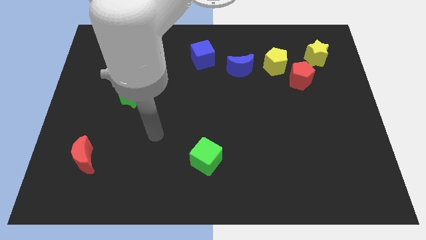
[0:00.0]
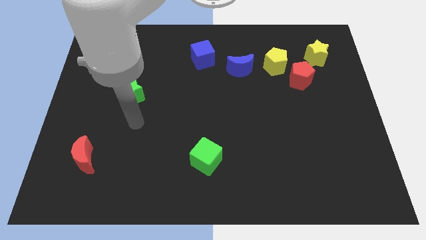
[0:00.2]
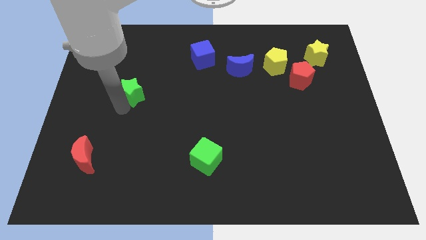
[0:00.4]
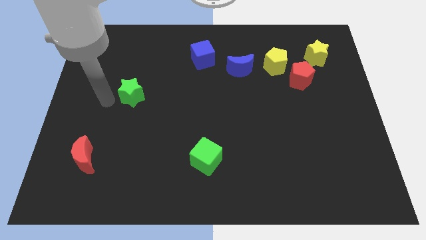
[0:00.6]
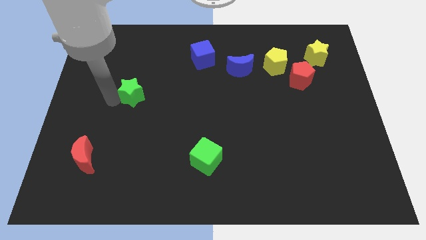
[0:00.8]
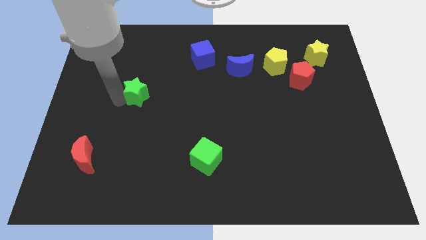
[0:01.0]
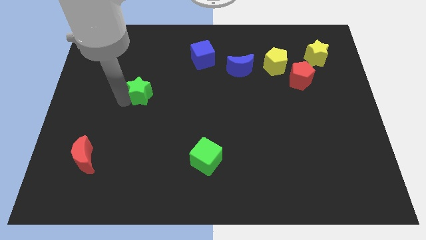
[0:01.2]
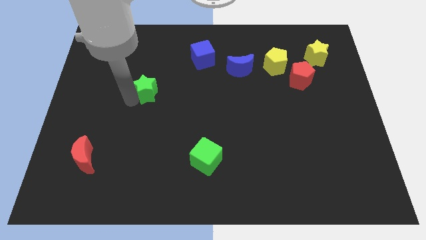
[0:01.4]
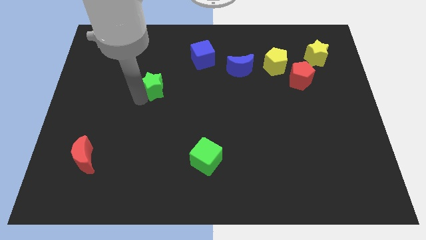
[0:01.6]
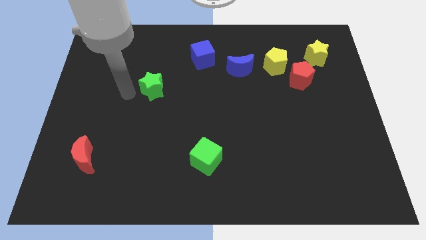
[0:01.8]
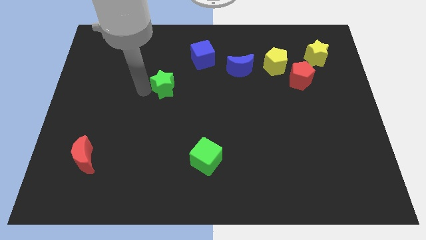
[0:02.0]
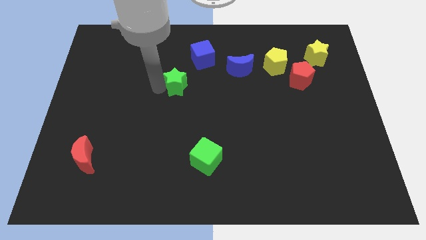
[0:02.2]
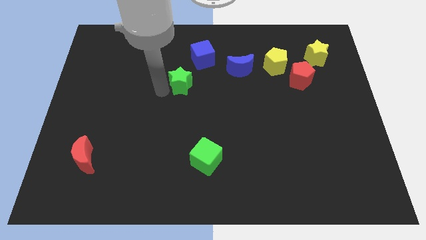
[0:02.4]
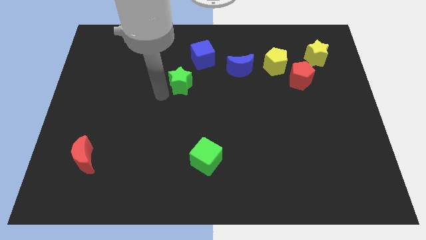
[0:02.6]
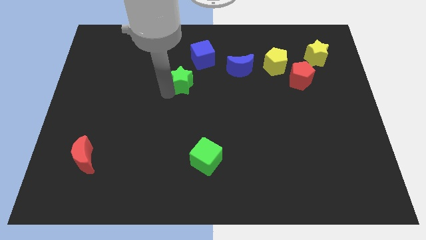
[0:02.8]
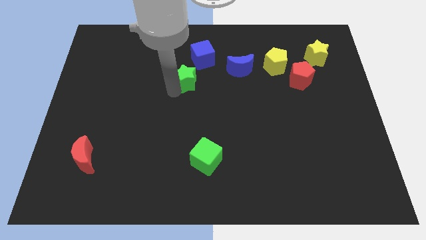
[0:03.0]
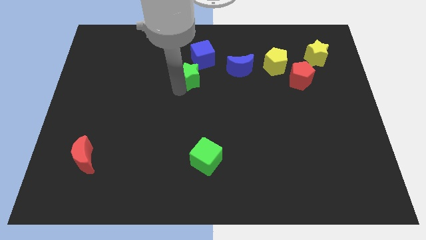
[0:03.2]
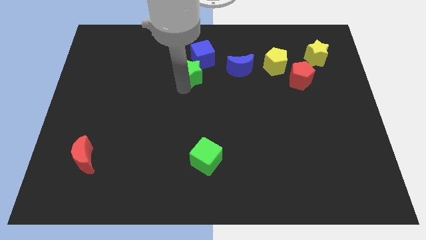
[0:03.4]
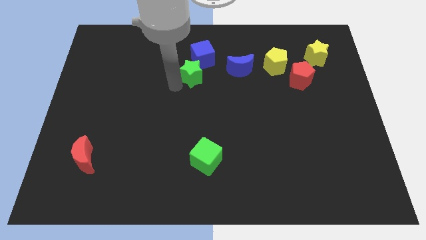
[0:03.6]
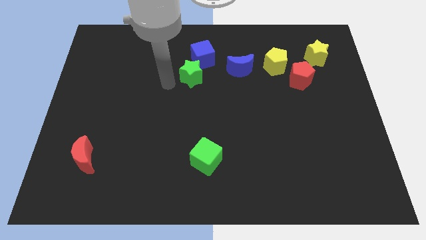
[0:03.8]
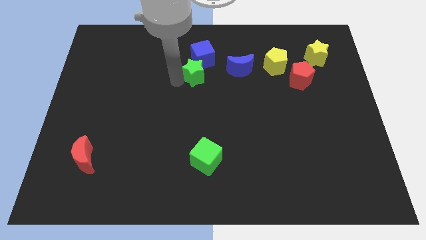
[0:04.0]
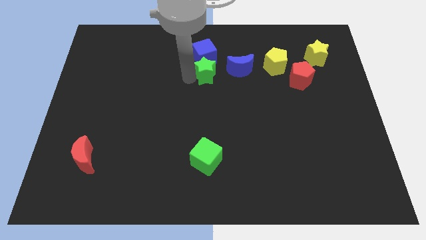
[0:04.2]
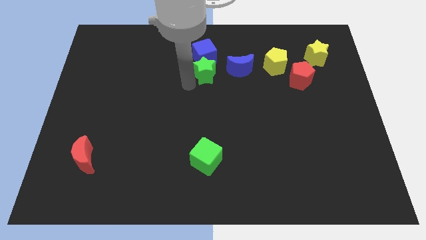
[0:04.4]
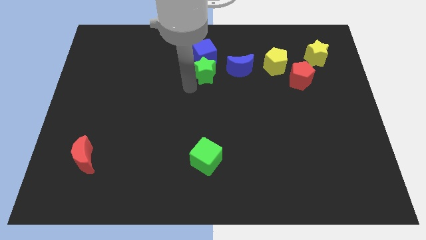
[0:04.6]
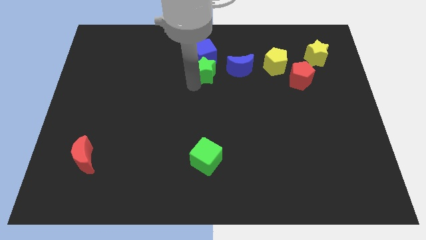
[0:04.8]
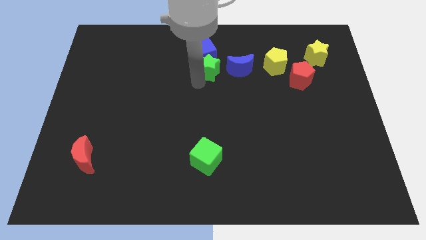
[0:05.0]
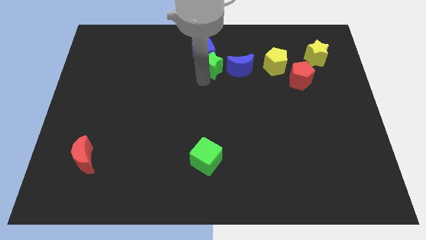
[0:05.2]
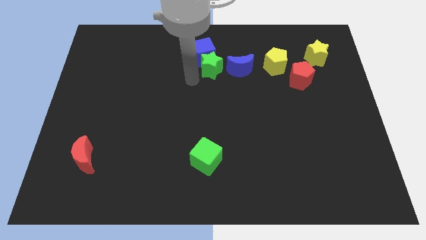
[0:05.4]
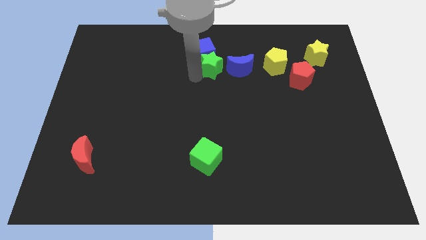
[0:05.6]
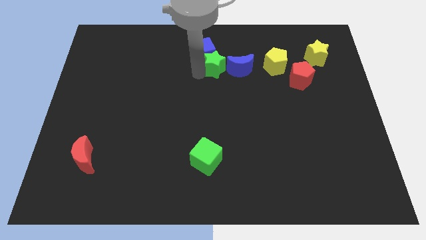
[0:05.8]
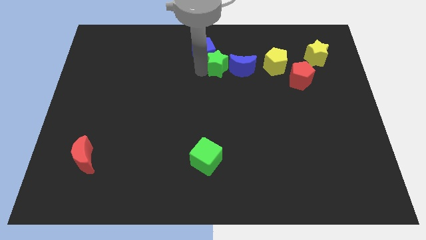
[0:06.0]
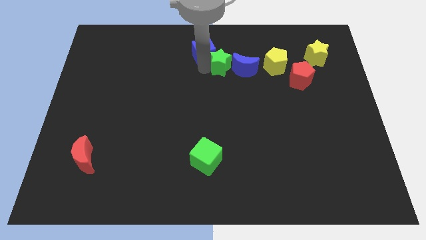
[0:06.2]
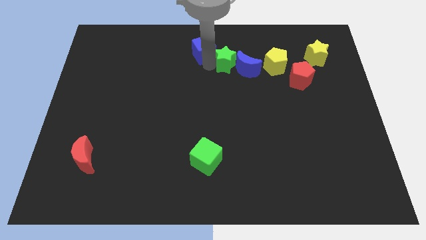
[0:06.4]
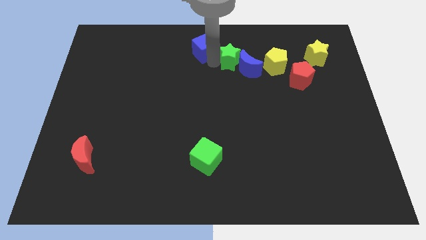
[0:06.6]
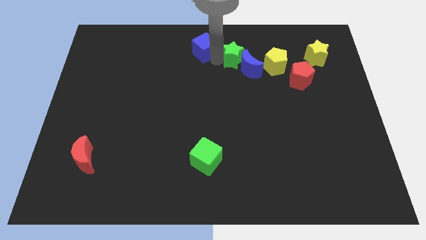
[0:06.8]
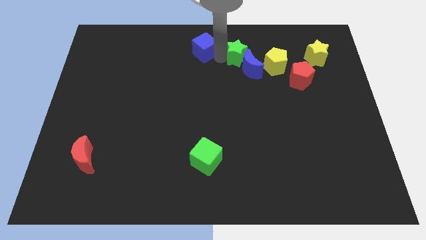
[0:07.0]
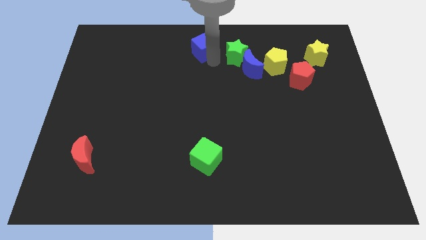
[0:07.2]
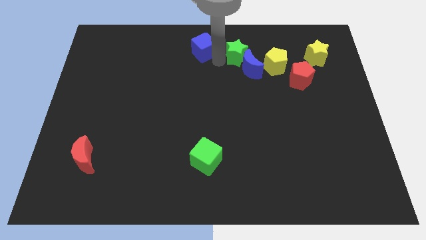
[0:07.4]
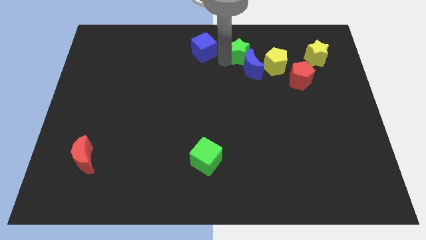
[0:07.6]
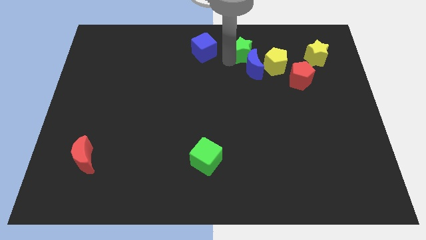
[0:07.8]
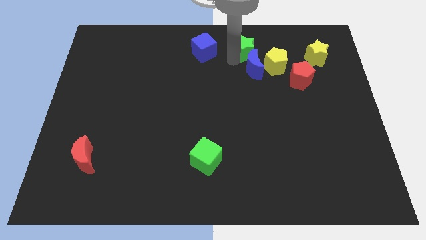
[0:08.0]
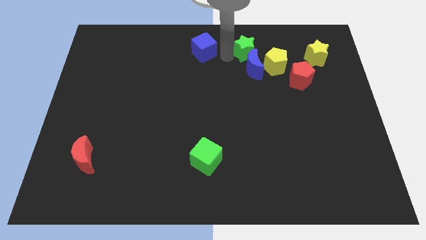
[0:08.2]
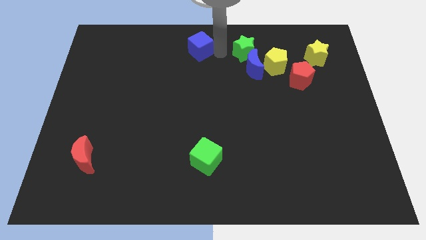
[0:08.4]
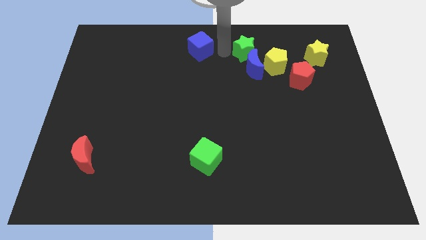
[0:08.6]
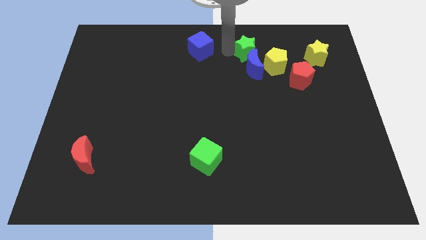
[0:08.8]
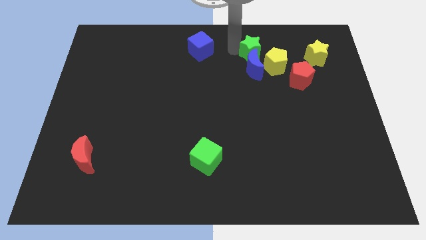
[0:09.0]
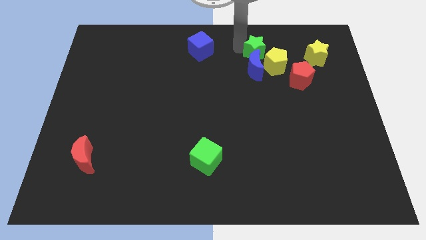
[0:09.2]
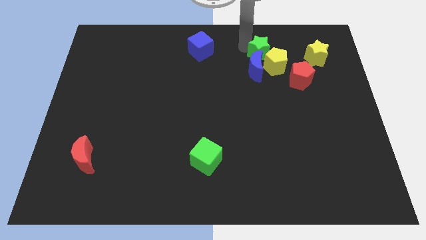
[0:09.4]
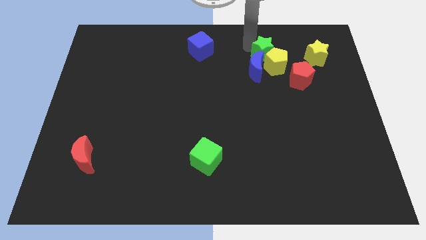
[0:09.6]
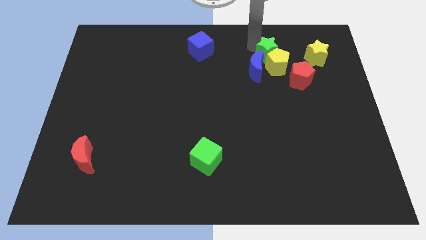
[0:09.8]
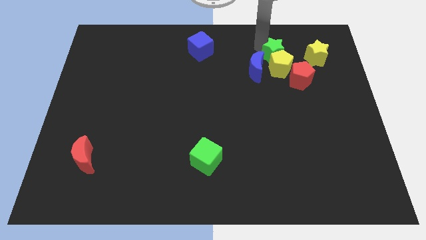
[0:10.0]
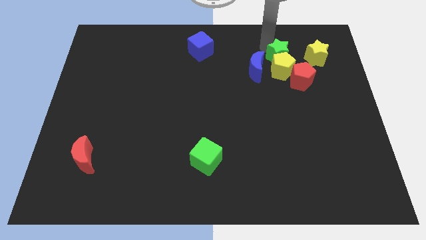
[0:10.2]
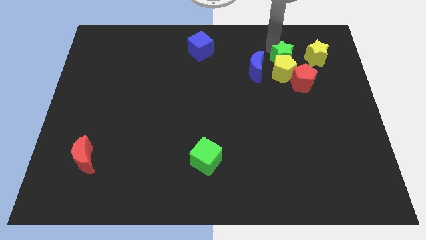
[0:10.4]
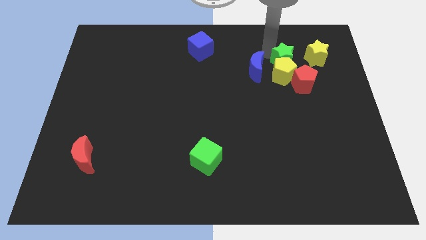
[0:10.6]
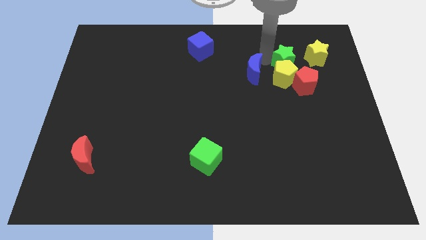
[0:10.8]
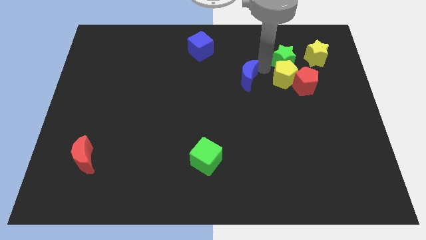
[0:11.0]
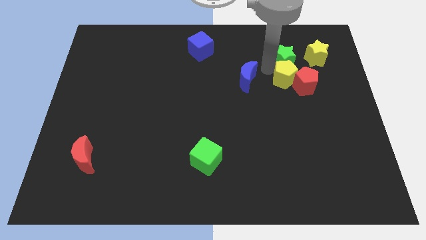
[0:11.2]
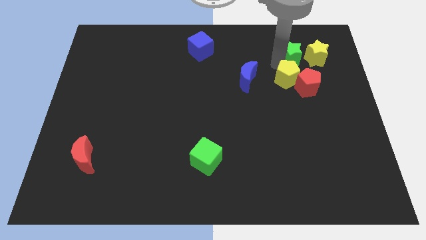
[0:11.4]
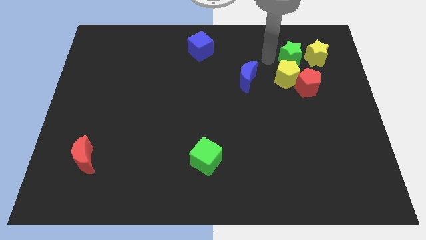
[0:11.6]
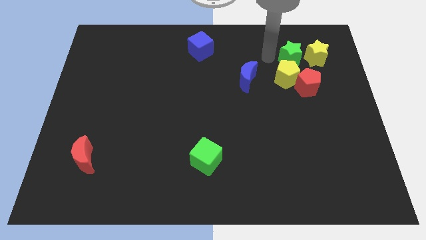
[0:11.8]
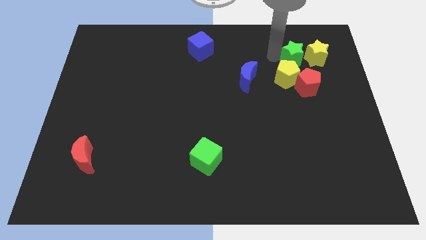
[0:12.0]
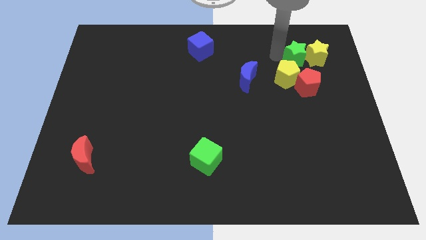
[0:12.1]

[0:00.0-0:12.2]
put the green star next to the yellow star

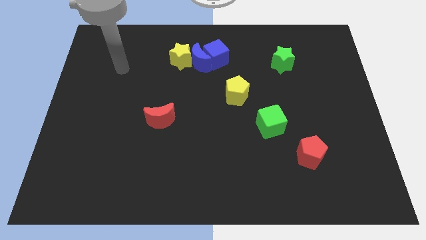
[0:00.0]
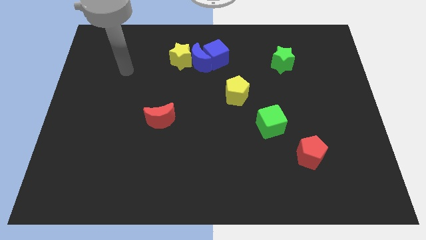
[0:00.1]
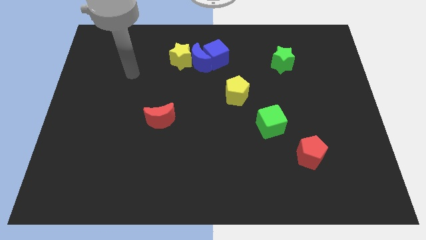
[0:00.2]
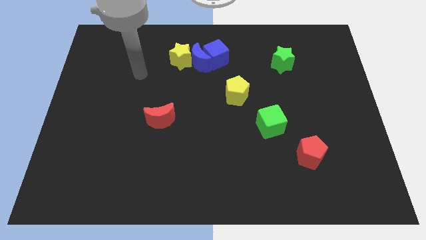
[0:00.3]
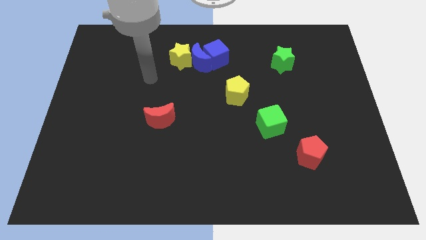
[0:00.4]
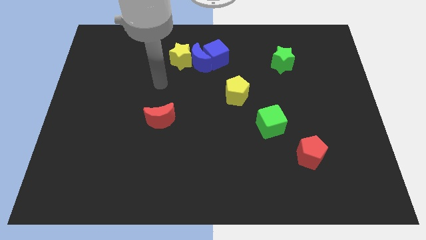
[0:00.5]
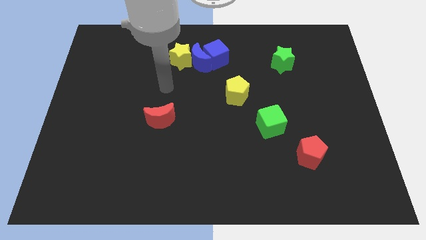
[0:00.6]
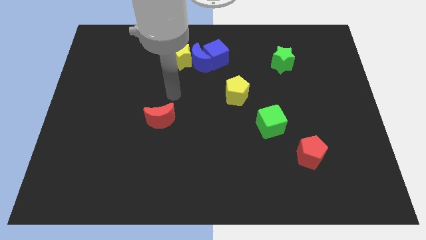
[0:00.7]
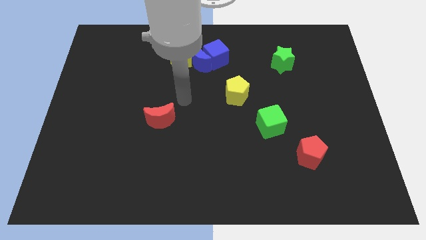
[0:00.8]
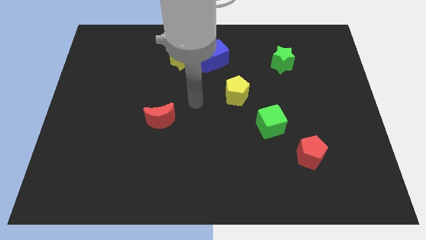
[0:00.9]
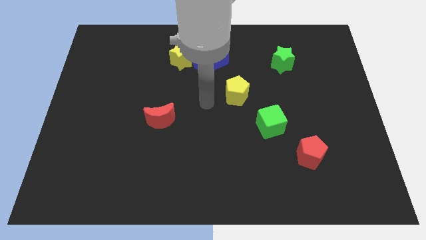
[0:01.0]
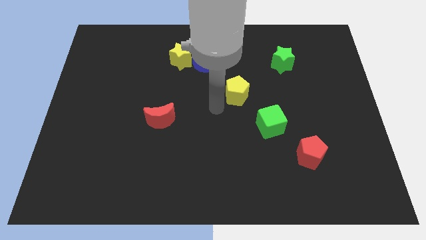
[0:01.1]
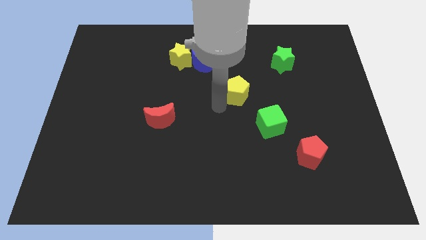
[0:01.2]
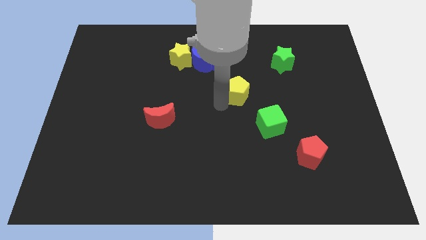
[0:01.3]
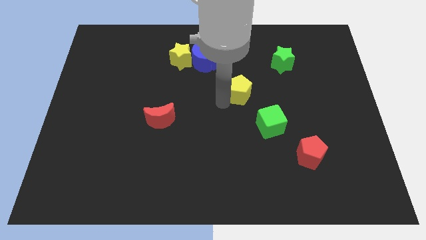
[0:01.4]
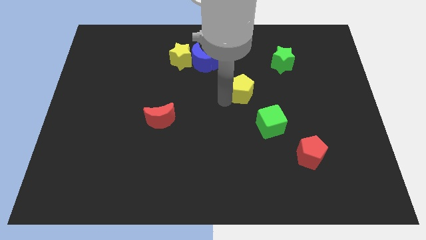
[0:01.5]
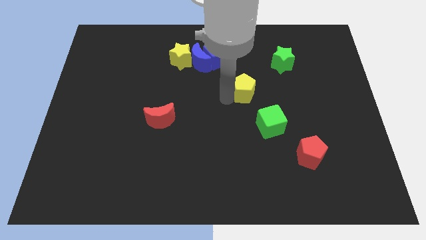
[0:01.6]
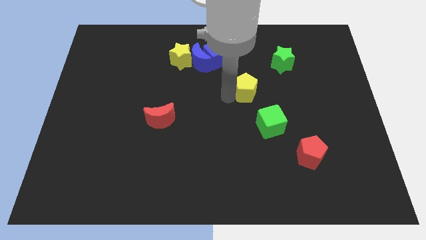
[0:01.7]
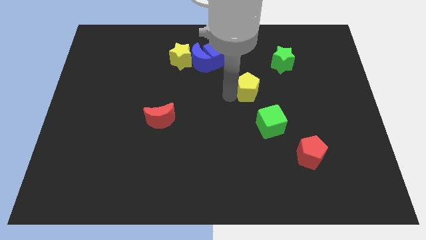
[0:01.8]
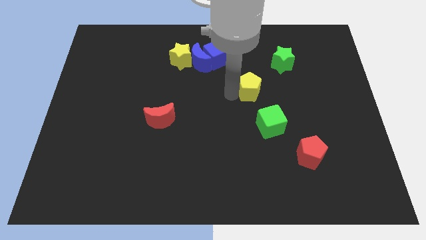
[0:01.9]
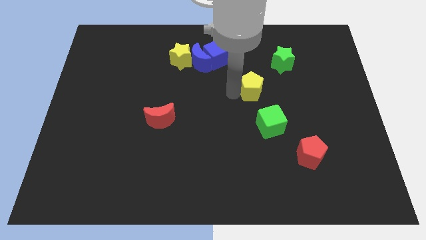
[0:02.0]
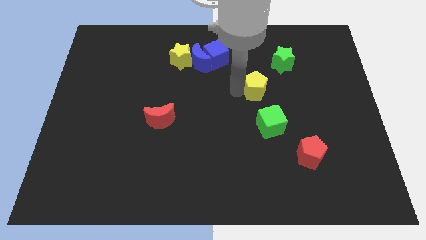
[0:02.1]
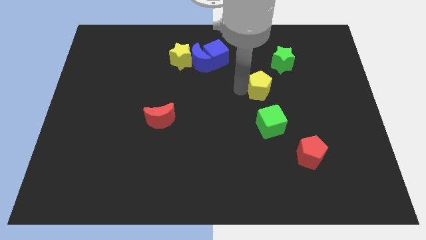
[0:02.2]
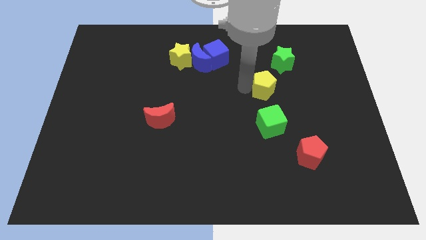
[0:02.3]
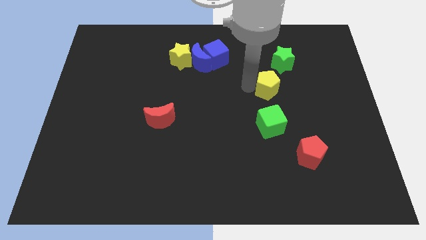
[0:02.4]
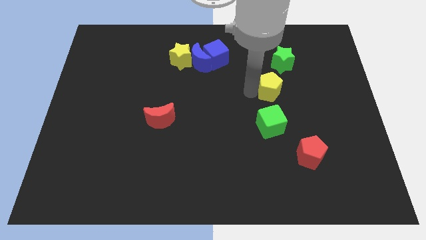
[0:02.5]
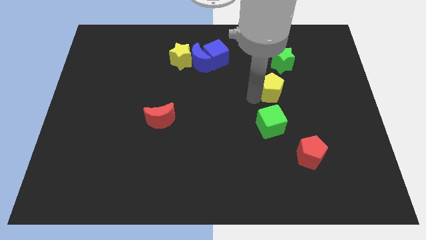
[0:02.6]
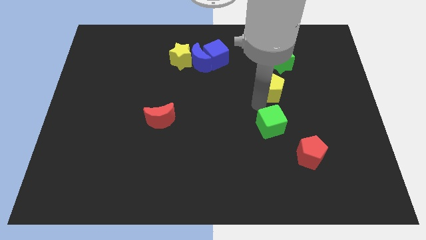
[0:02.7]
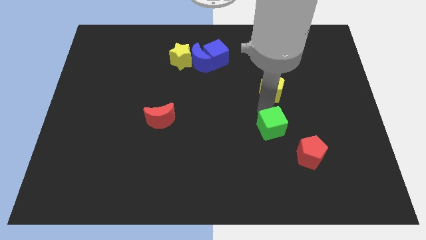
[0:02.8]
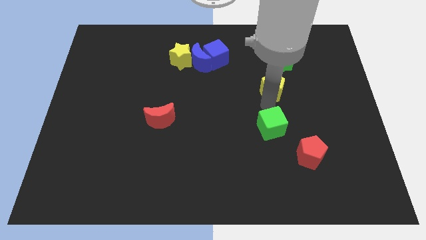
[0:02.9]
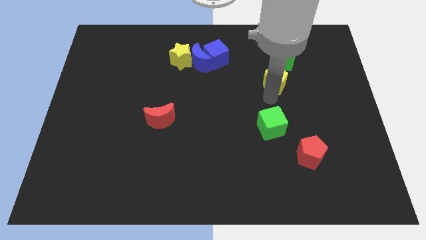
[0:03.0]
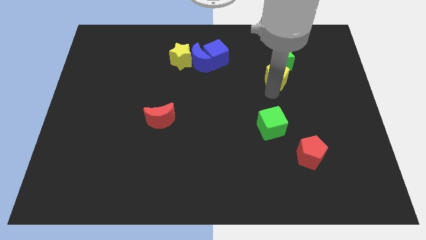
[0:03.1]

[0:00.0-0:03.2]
move the yellow pentagon to the green star
